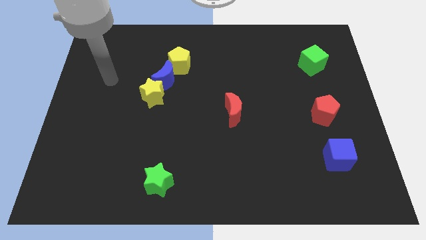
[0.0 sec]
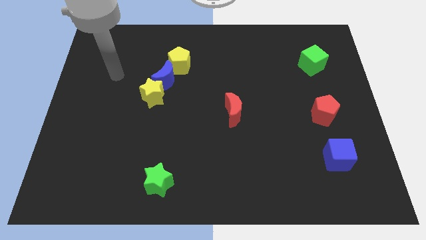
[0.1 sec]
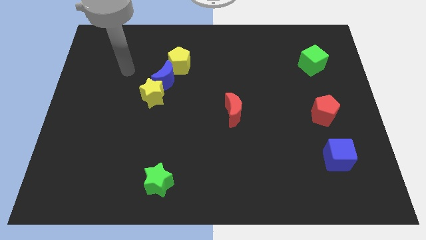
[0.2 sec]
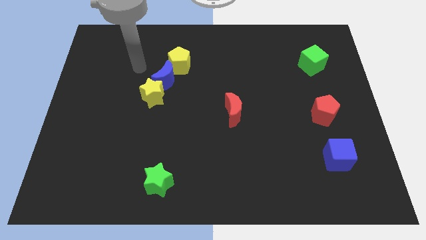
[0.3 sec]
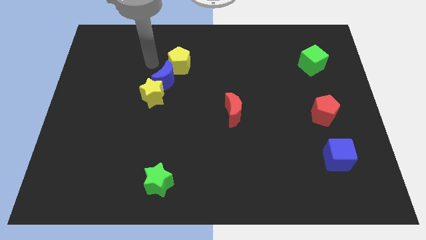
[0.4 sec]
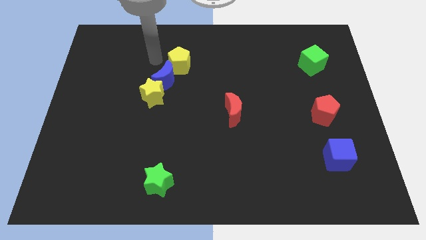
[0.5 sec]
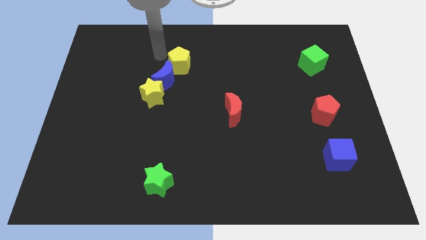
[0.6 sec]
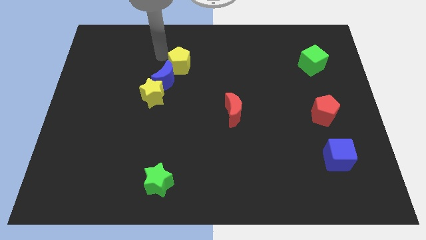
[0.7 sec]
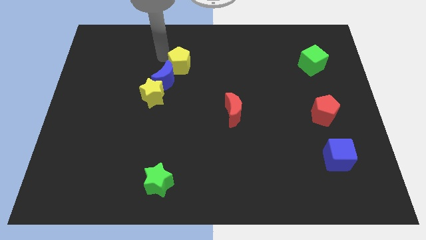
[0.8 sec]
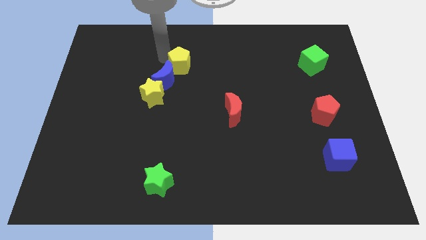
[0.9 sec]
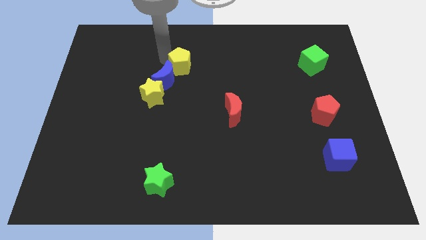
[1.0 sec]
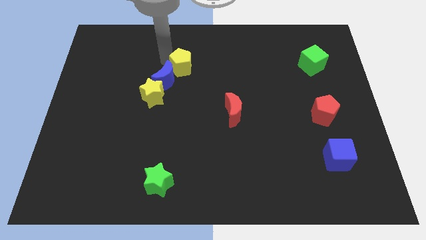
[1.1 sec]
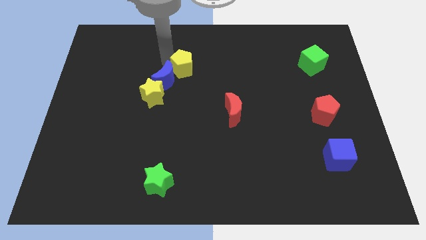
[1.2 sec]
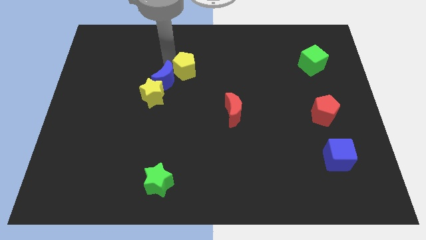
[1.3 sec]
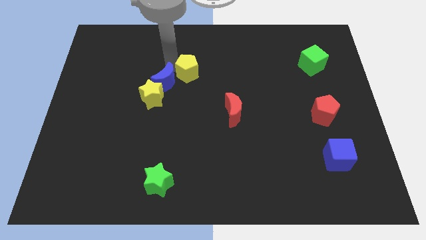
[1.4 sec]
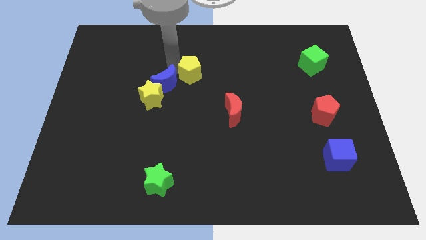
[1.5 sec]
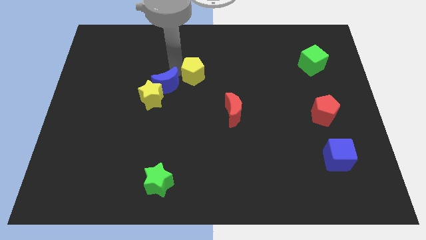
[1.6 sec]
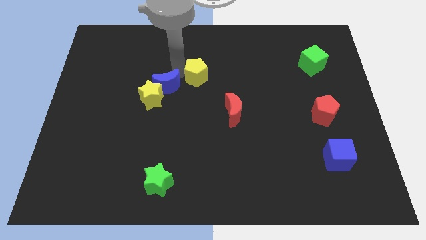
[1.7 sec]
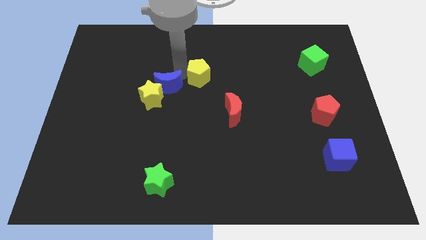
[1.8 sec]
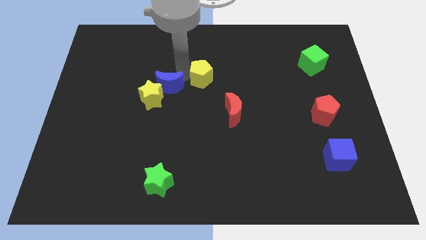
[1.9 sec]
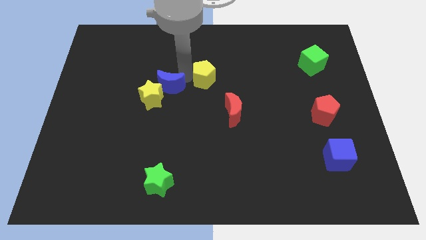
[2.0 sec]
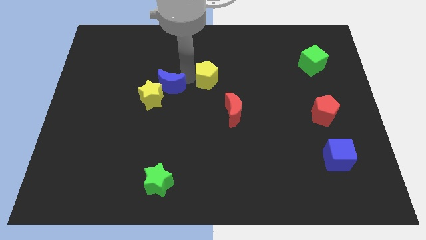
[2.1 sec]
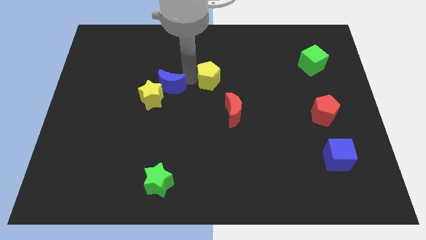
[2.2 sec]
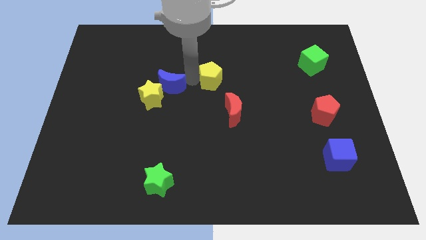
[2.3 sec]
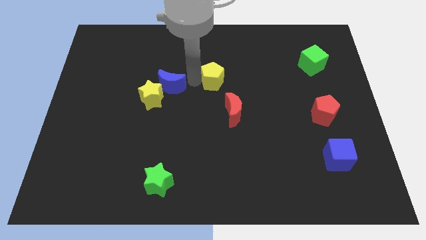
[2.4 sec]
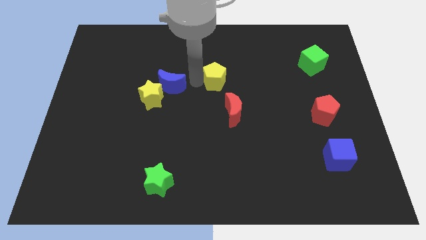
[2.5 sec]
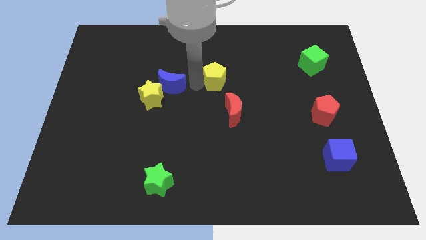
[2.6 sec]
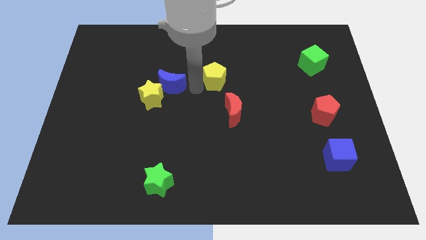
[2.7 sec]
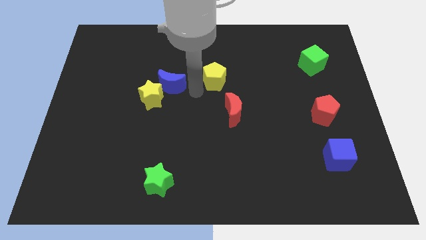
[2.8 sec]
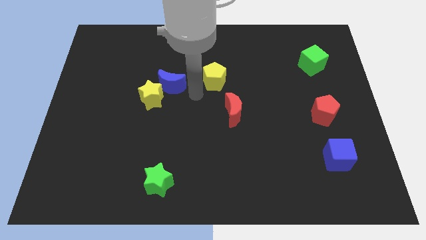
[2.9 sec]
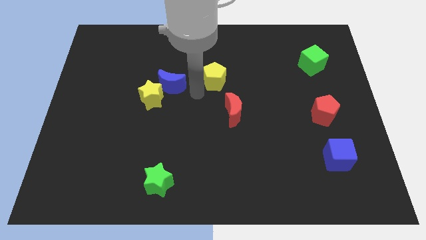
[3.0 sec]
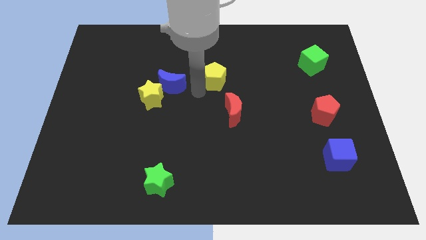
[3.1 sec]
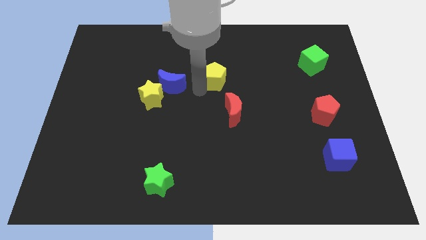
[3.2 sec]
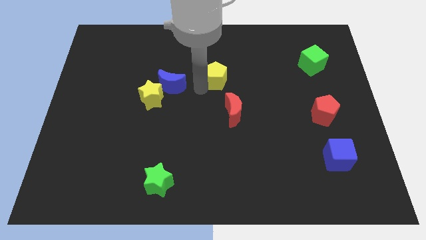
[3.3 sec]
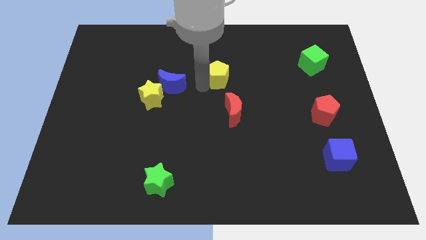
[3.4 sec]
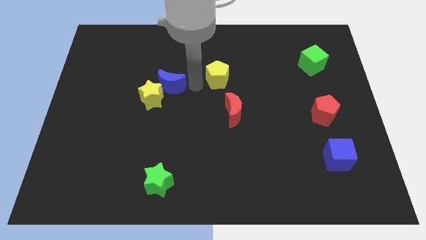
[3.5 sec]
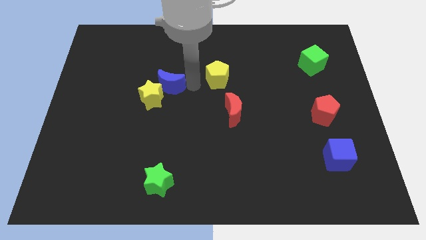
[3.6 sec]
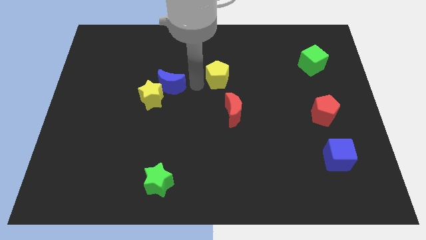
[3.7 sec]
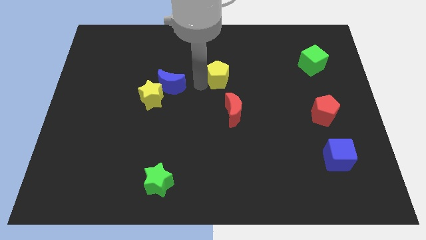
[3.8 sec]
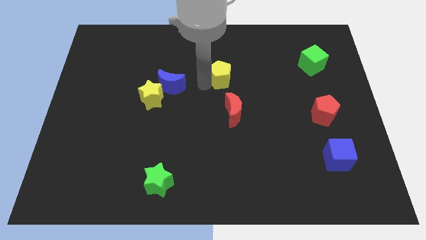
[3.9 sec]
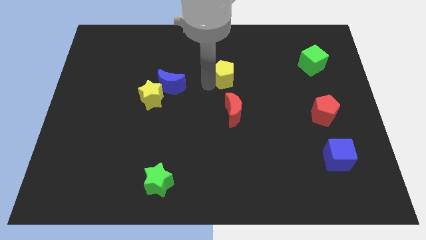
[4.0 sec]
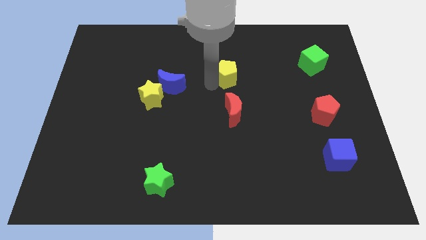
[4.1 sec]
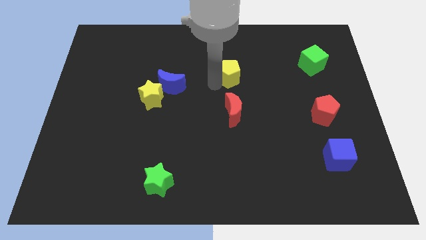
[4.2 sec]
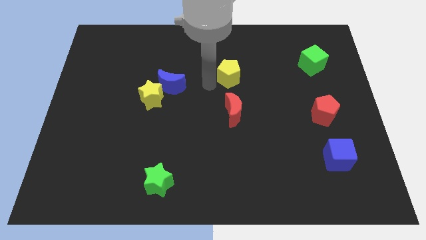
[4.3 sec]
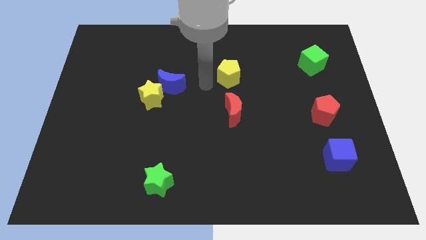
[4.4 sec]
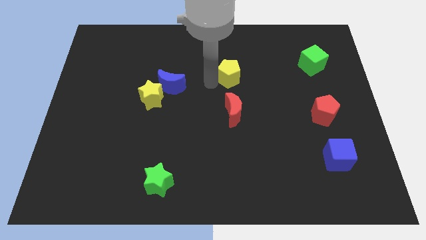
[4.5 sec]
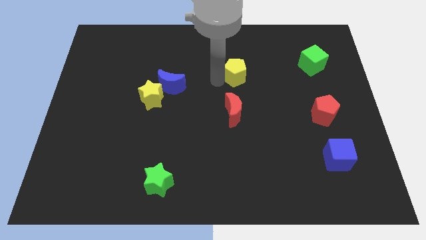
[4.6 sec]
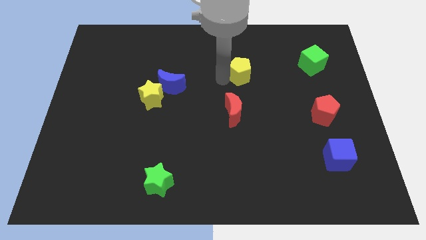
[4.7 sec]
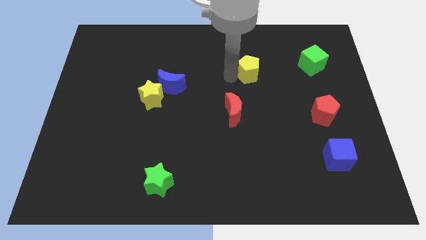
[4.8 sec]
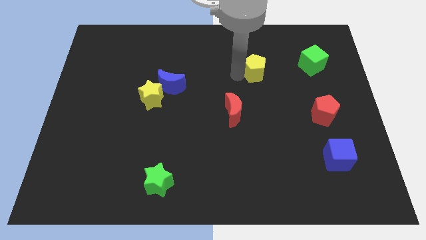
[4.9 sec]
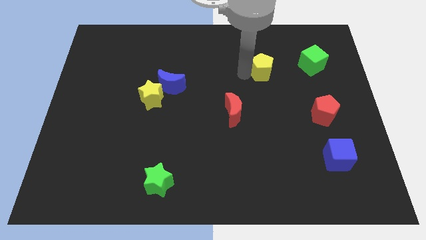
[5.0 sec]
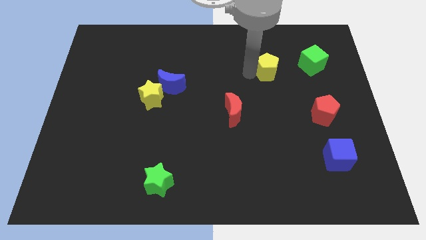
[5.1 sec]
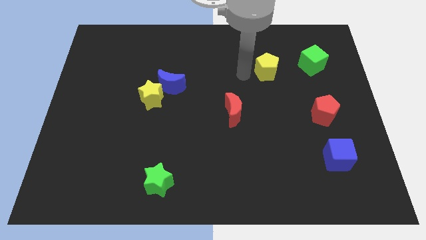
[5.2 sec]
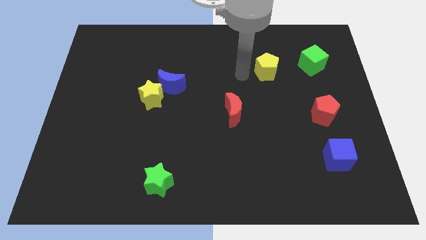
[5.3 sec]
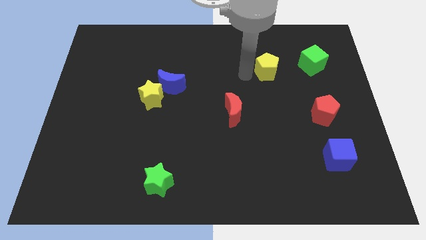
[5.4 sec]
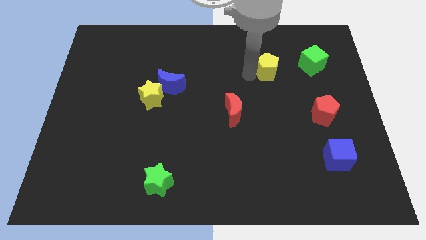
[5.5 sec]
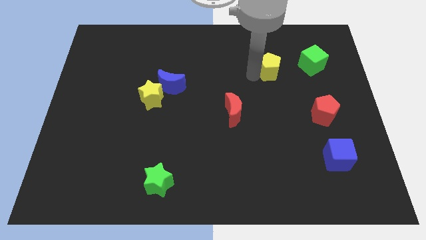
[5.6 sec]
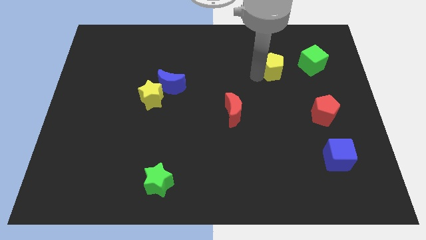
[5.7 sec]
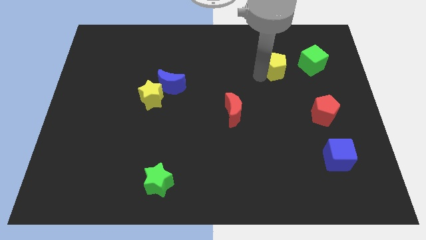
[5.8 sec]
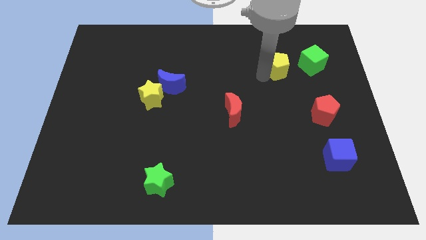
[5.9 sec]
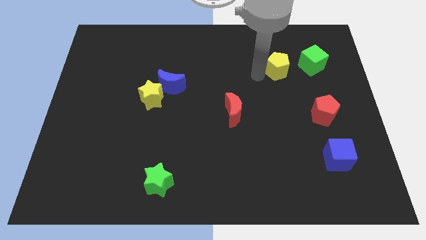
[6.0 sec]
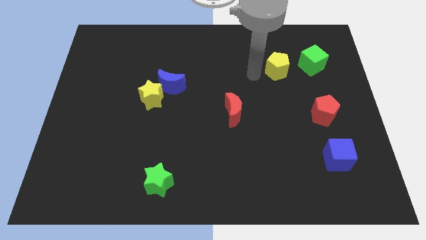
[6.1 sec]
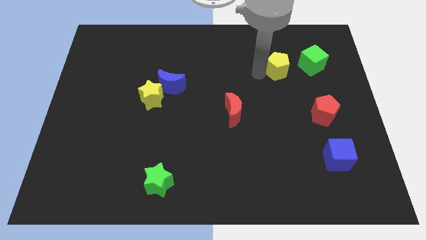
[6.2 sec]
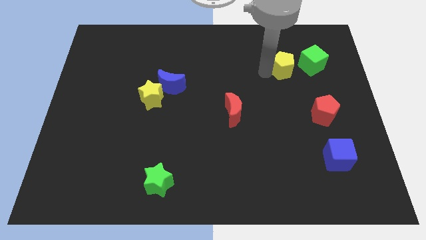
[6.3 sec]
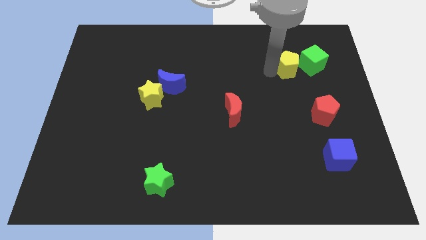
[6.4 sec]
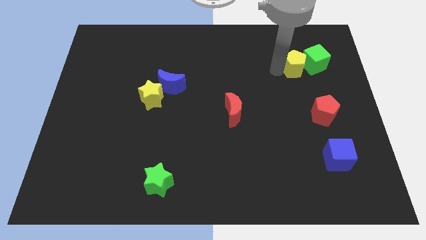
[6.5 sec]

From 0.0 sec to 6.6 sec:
push the yellow pentagon towards the green cube

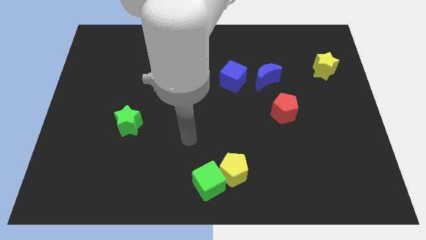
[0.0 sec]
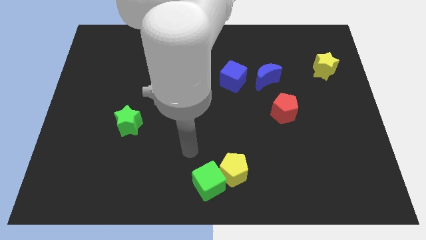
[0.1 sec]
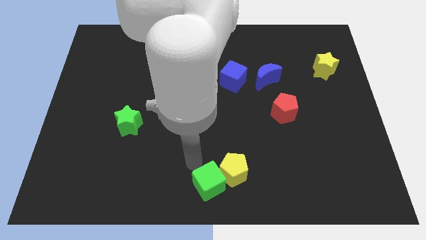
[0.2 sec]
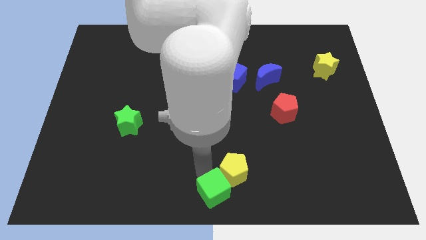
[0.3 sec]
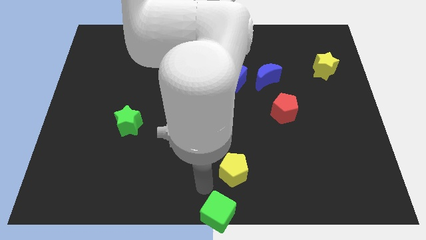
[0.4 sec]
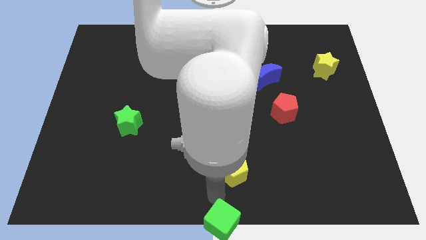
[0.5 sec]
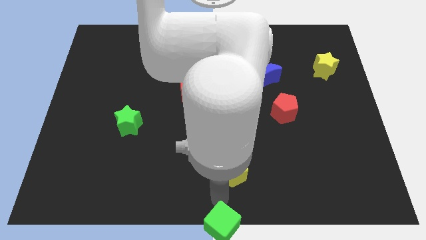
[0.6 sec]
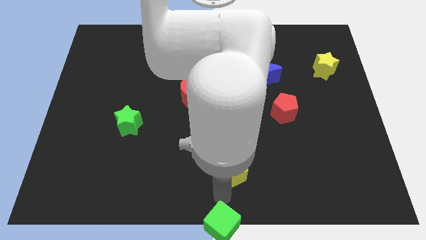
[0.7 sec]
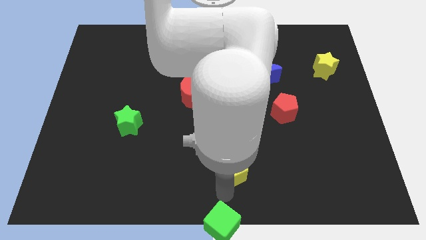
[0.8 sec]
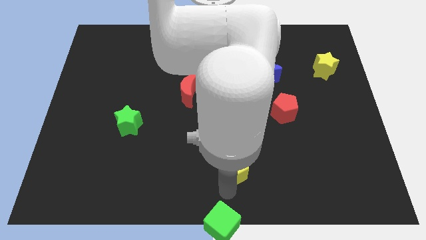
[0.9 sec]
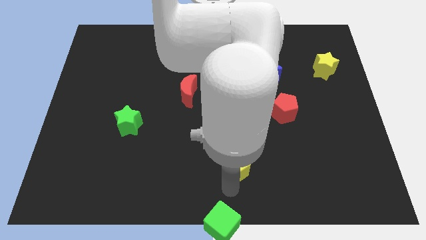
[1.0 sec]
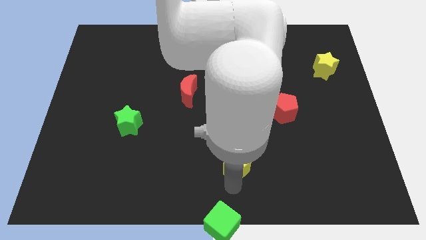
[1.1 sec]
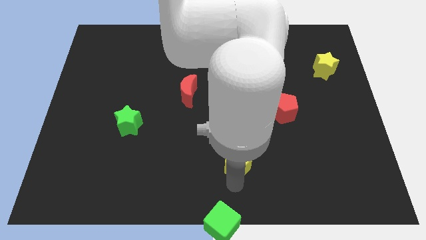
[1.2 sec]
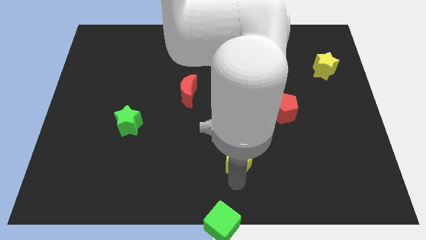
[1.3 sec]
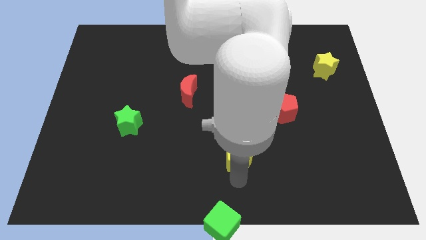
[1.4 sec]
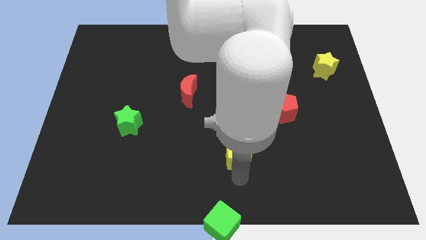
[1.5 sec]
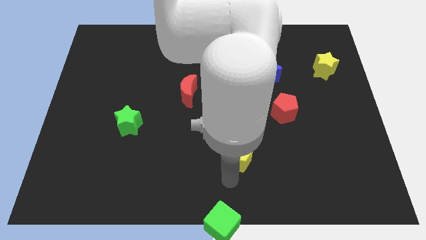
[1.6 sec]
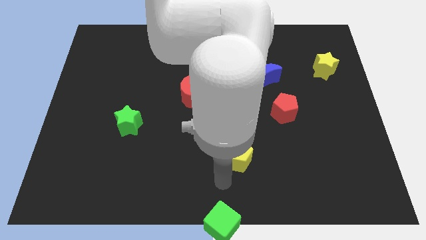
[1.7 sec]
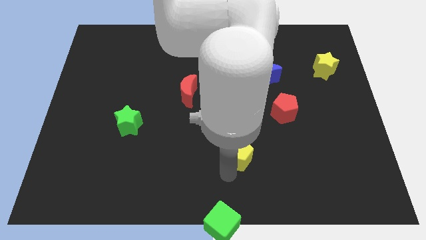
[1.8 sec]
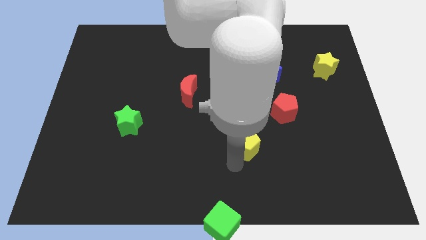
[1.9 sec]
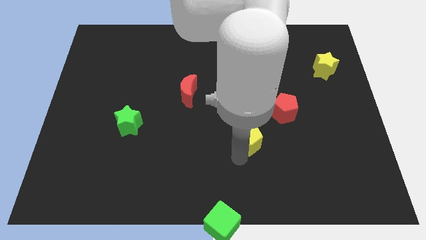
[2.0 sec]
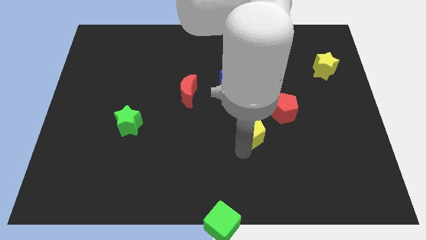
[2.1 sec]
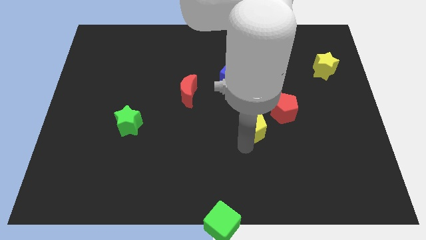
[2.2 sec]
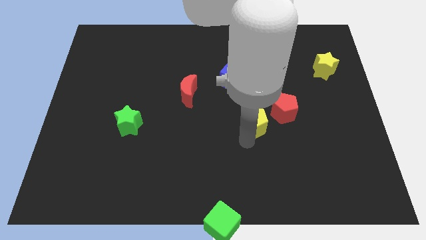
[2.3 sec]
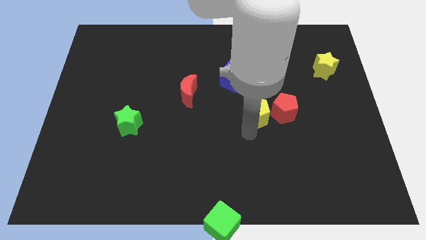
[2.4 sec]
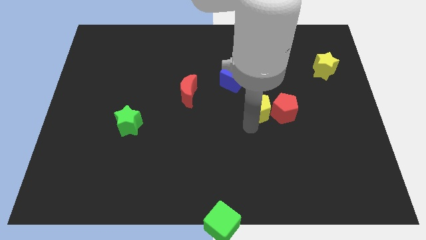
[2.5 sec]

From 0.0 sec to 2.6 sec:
push the yellow pentagon next to the red pentagon
